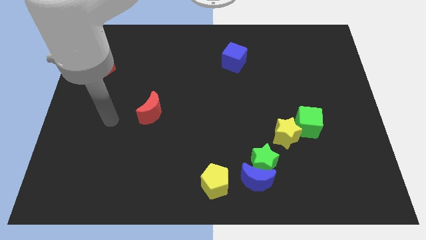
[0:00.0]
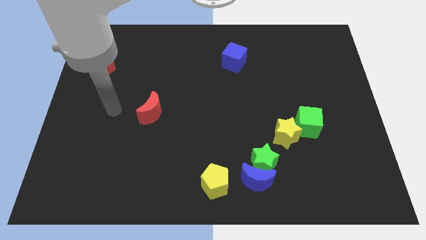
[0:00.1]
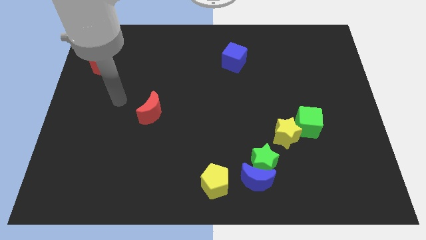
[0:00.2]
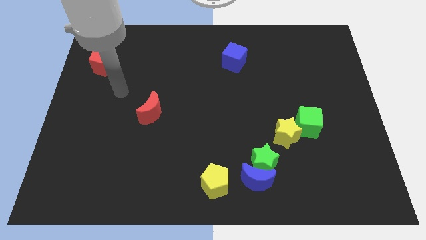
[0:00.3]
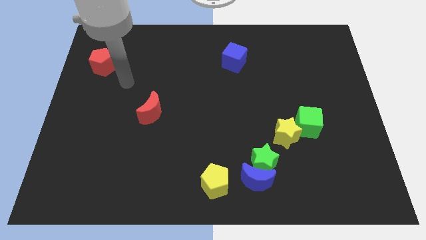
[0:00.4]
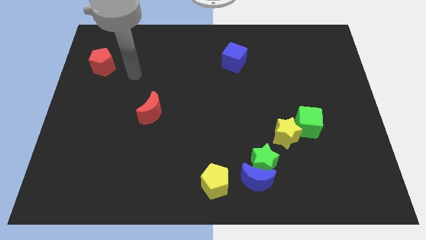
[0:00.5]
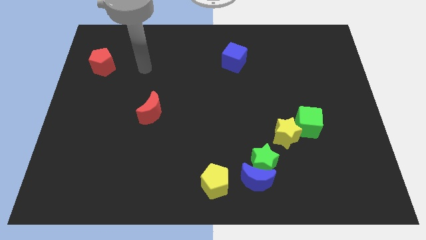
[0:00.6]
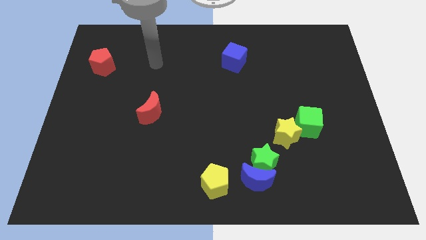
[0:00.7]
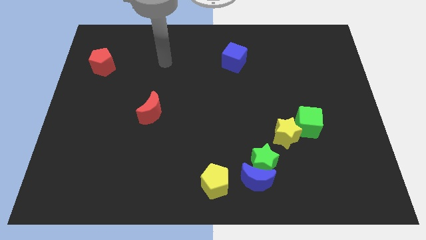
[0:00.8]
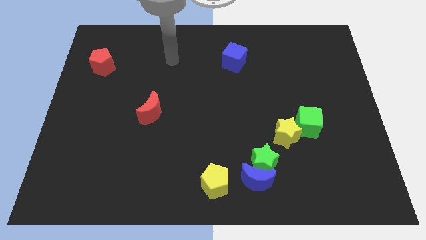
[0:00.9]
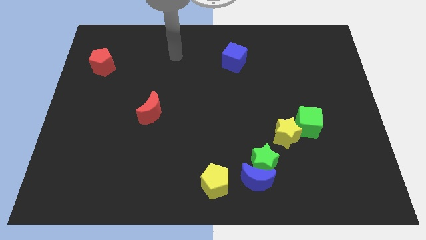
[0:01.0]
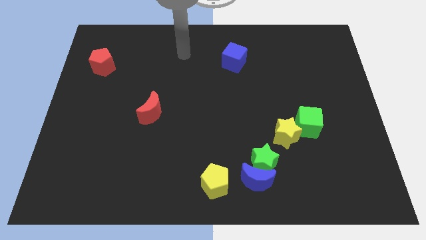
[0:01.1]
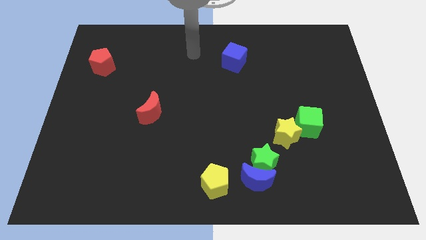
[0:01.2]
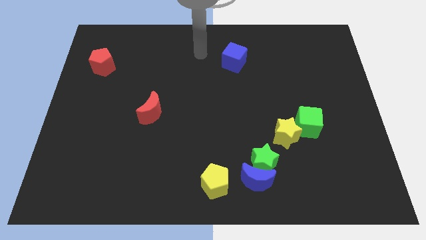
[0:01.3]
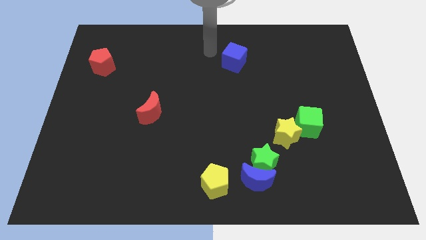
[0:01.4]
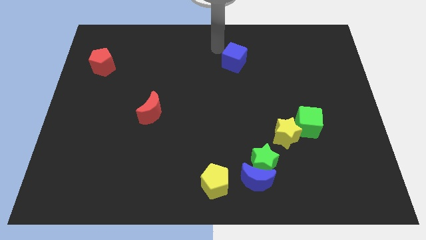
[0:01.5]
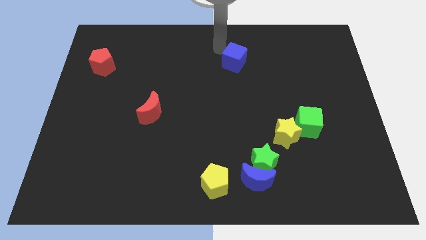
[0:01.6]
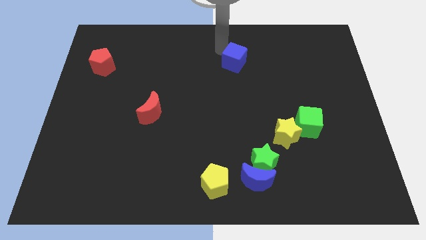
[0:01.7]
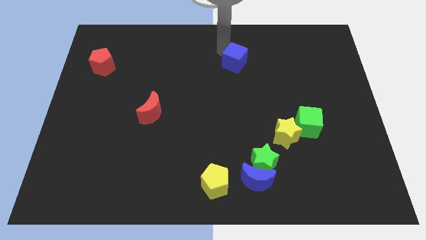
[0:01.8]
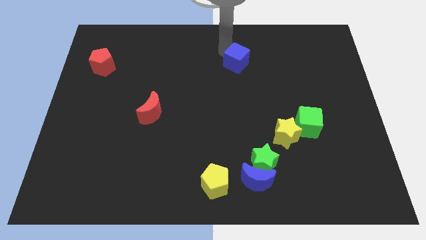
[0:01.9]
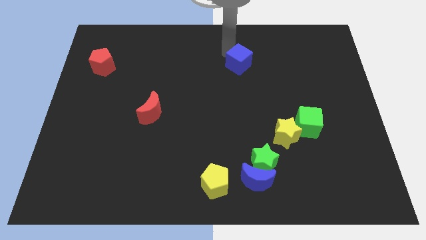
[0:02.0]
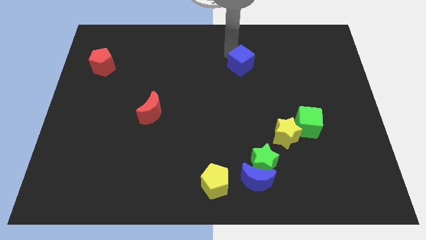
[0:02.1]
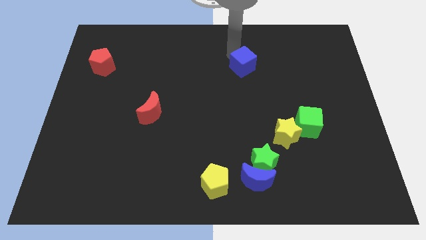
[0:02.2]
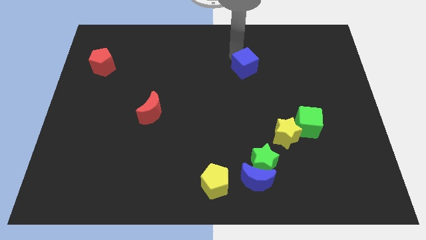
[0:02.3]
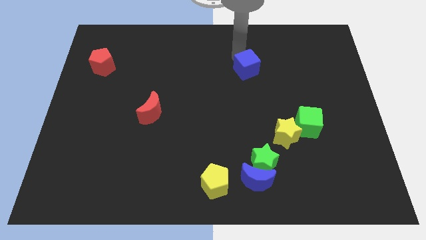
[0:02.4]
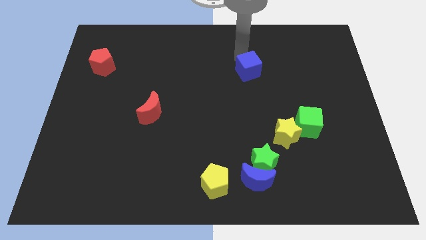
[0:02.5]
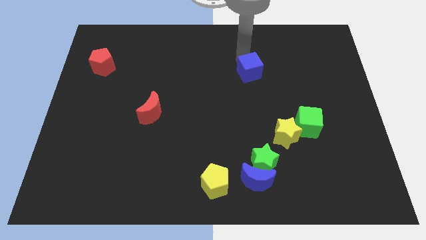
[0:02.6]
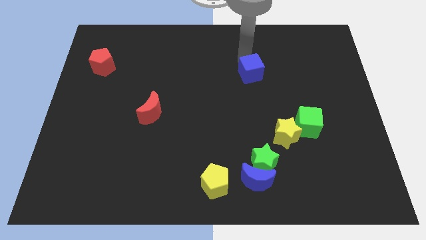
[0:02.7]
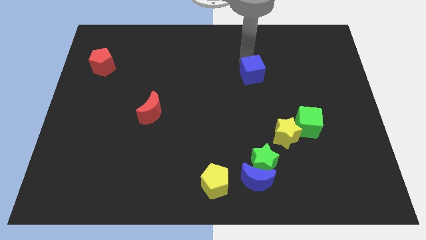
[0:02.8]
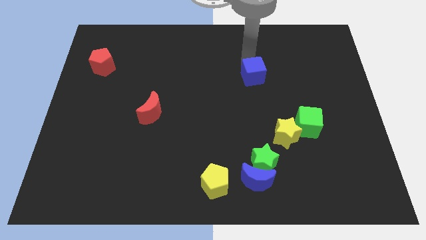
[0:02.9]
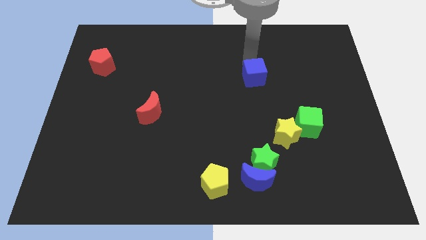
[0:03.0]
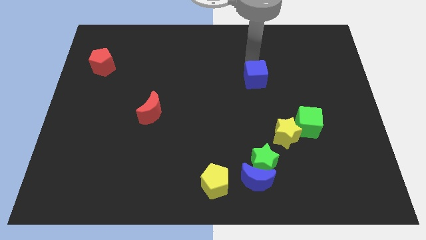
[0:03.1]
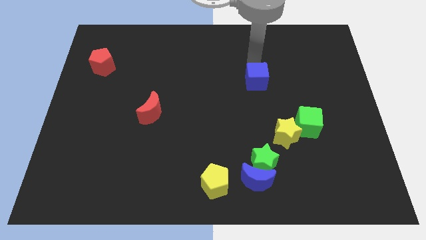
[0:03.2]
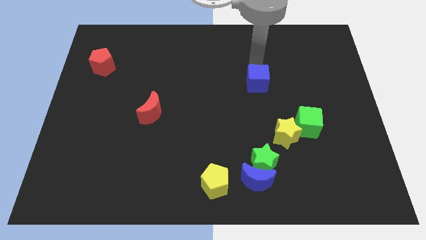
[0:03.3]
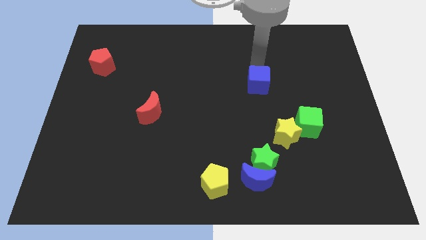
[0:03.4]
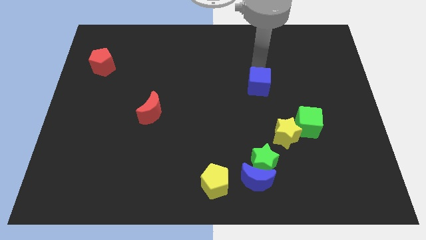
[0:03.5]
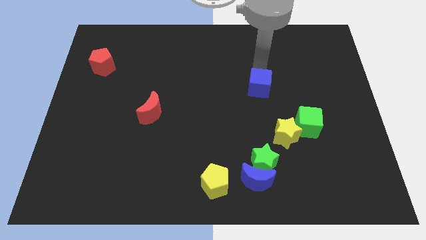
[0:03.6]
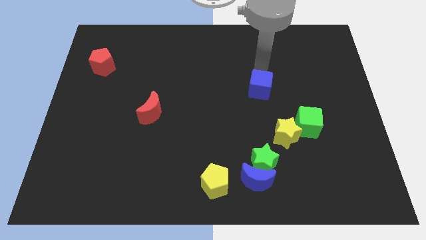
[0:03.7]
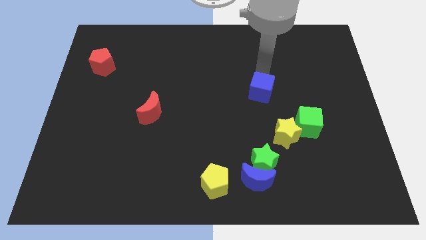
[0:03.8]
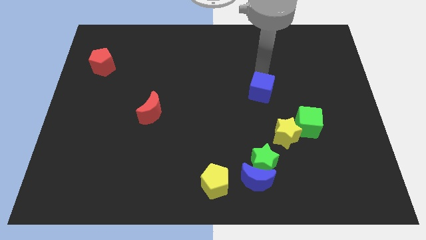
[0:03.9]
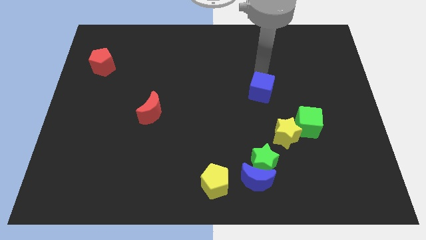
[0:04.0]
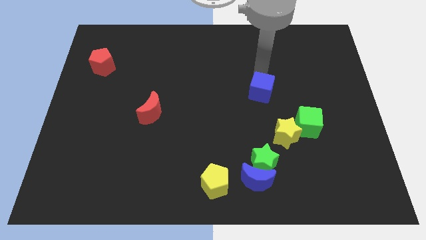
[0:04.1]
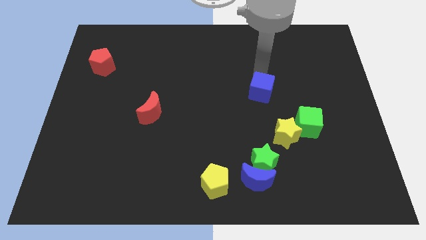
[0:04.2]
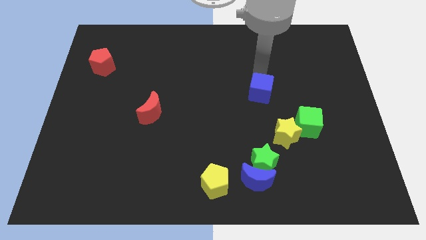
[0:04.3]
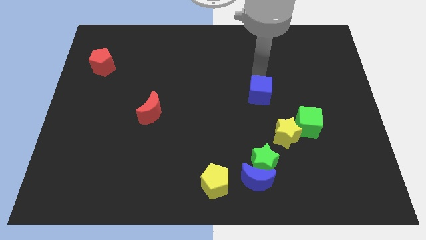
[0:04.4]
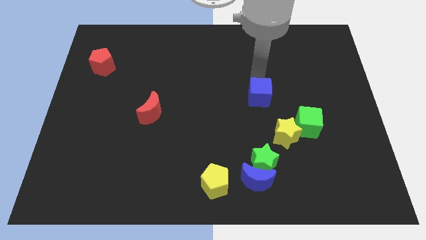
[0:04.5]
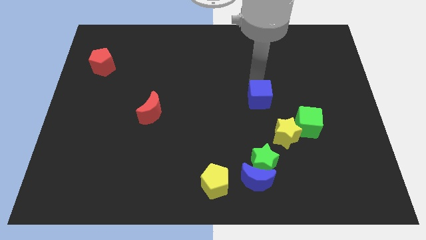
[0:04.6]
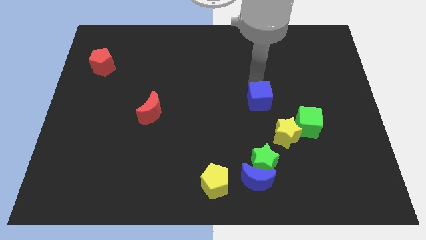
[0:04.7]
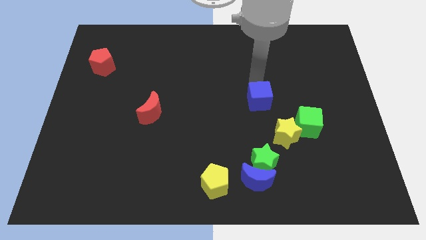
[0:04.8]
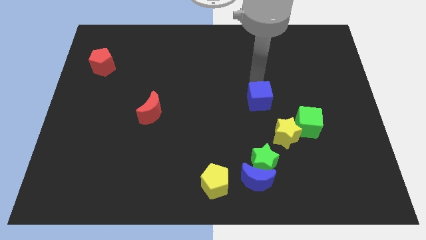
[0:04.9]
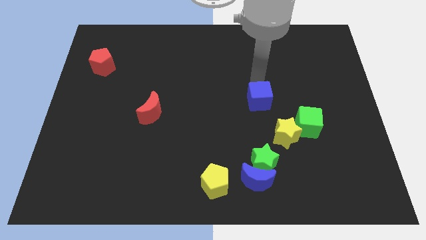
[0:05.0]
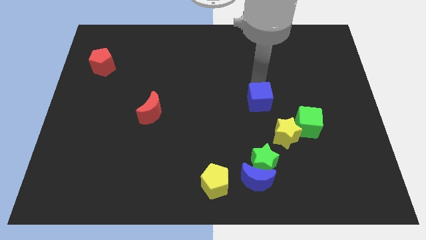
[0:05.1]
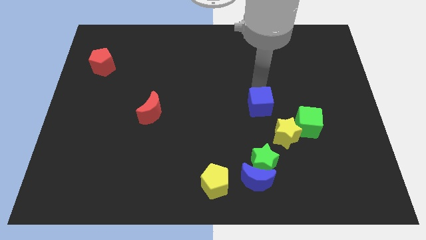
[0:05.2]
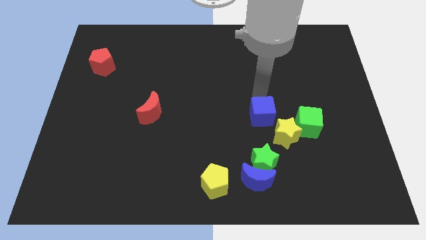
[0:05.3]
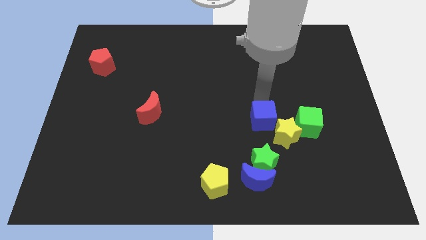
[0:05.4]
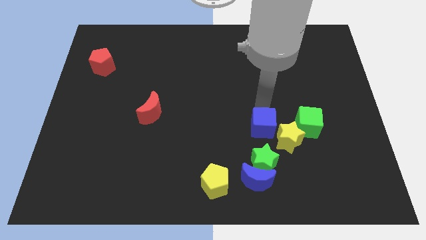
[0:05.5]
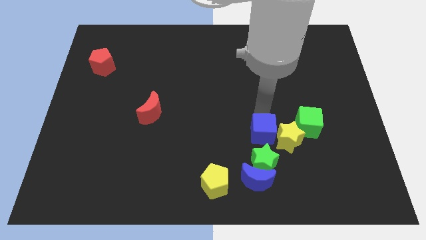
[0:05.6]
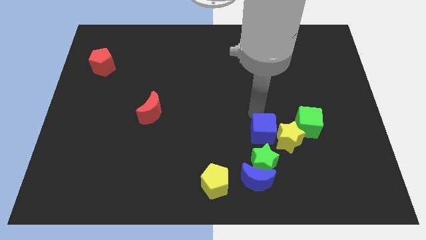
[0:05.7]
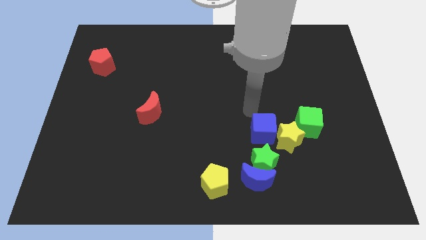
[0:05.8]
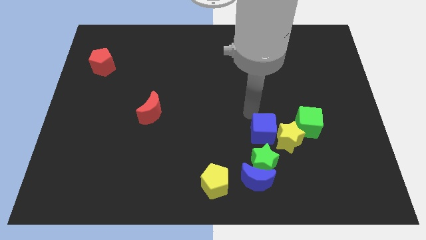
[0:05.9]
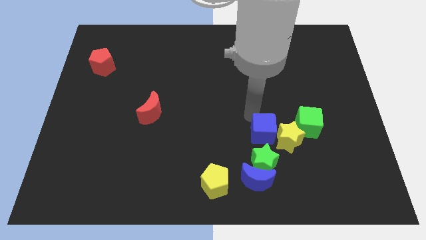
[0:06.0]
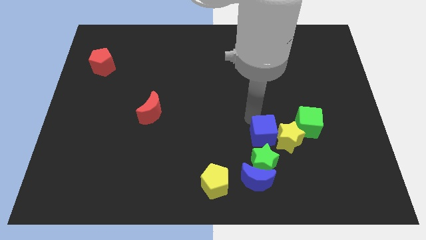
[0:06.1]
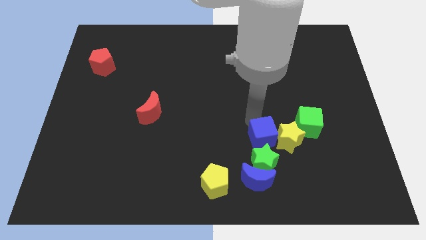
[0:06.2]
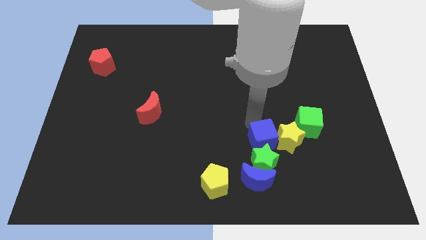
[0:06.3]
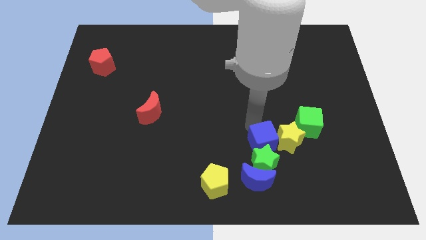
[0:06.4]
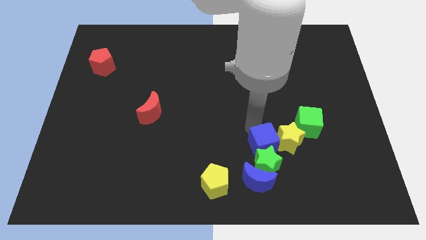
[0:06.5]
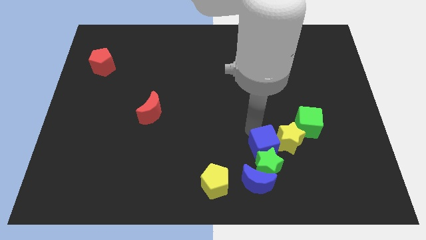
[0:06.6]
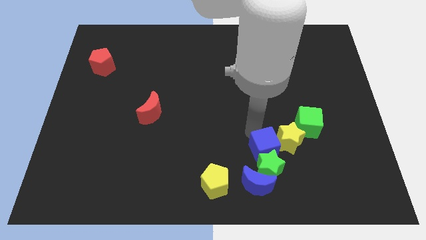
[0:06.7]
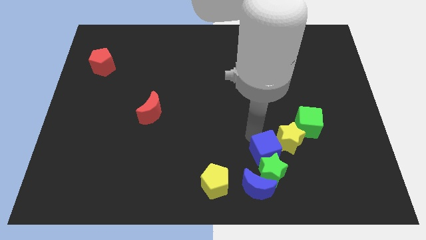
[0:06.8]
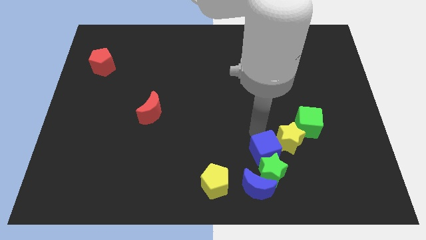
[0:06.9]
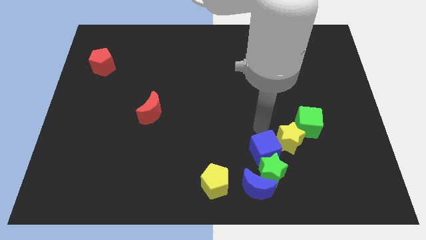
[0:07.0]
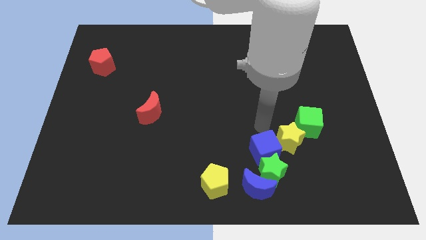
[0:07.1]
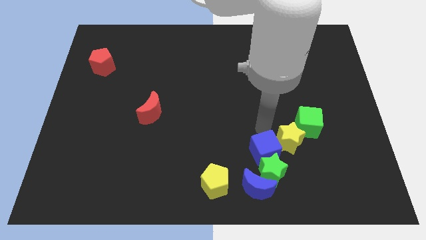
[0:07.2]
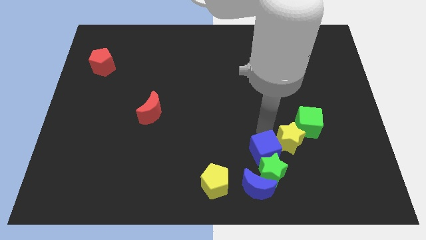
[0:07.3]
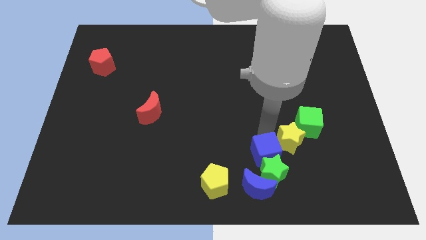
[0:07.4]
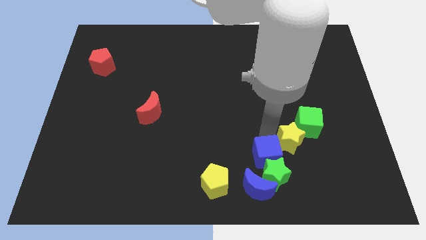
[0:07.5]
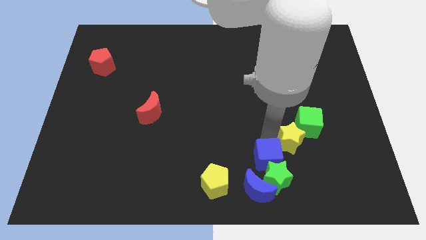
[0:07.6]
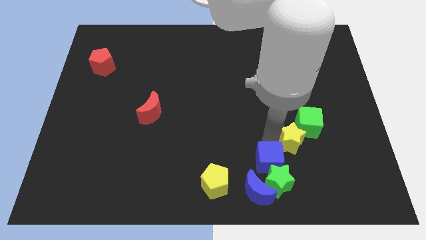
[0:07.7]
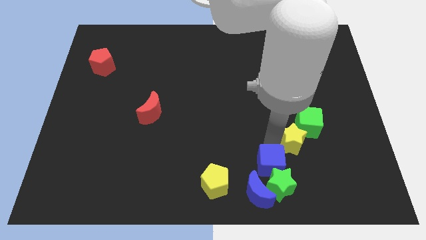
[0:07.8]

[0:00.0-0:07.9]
put the blue cube right of the yellow pentagon

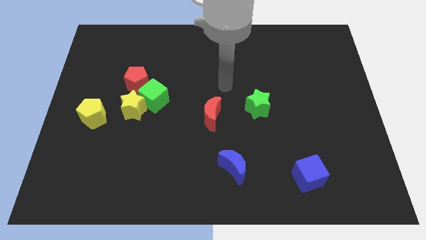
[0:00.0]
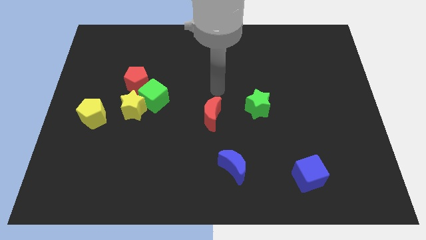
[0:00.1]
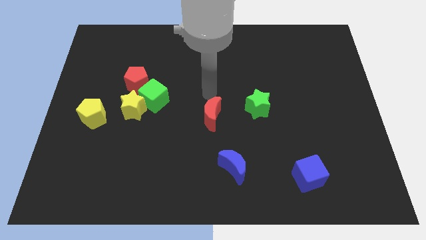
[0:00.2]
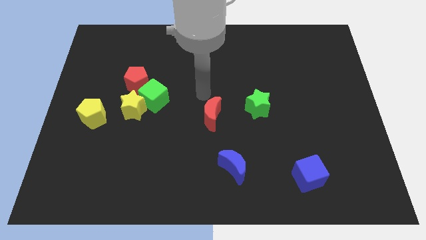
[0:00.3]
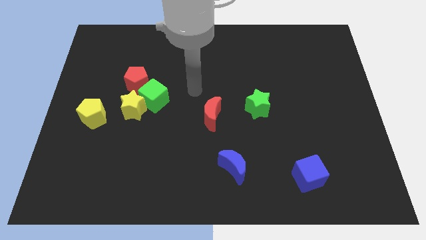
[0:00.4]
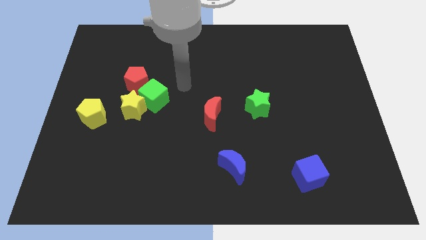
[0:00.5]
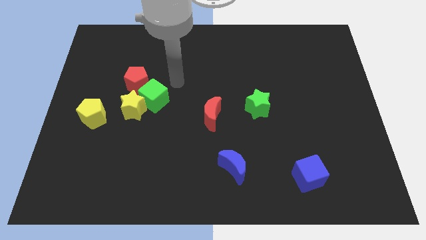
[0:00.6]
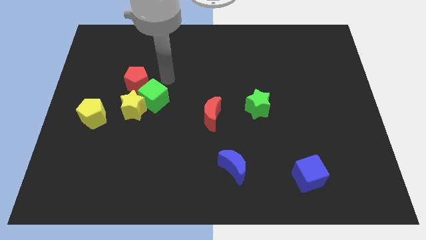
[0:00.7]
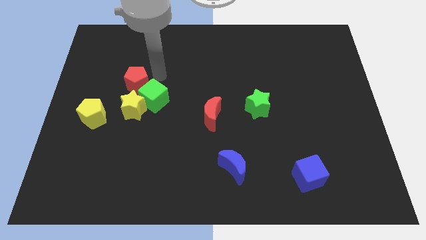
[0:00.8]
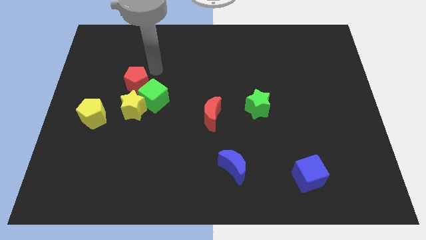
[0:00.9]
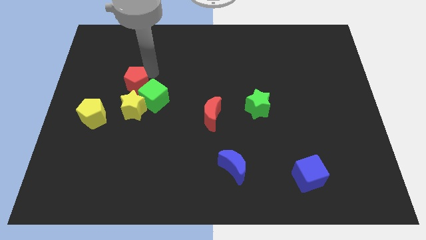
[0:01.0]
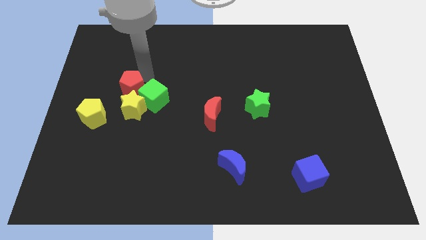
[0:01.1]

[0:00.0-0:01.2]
move the red pentagon diagonally up and to the right of the yellow pentagon
